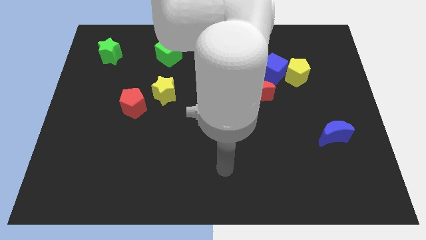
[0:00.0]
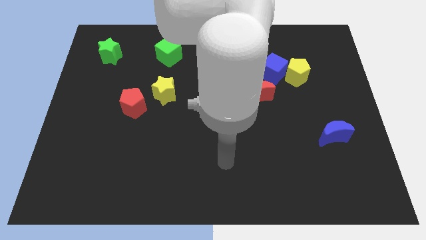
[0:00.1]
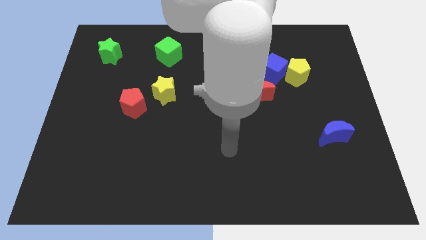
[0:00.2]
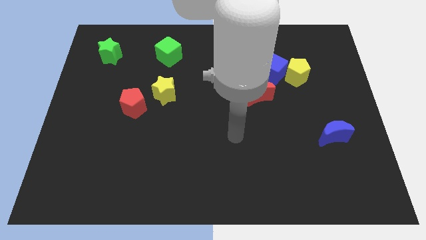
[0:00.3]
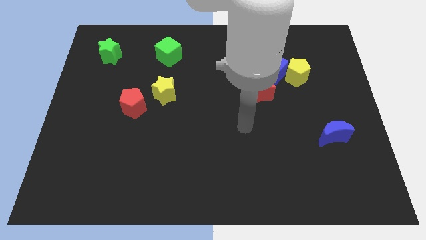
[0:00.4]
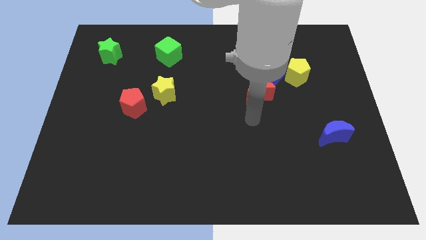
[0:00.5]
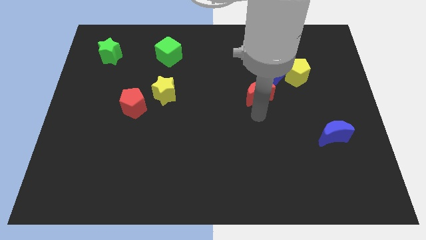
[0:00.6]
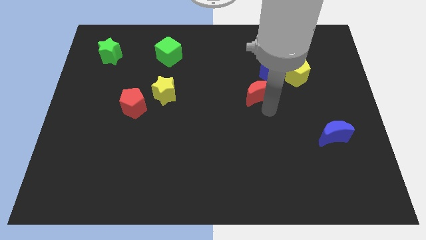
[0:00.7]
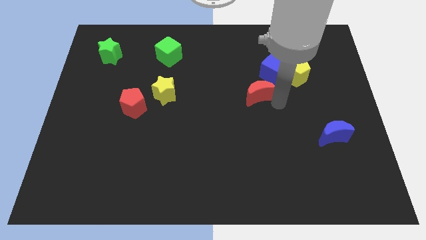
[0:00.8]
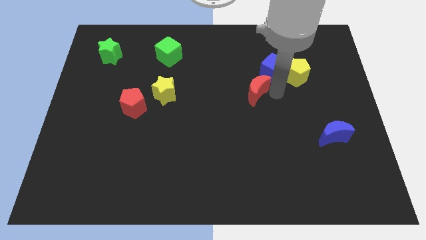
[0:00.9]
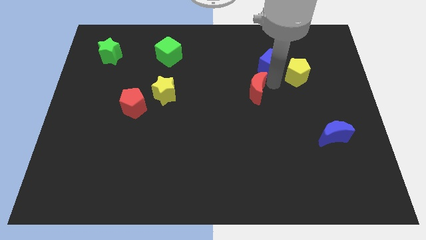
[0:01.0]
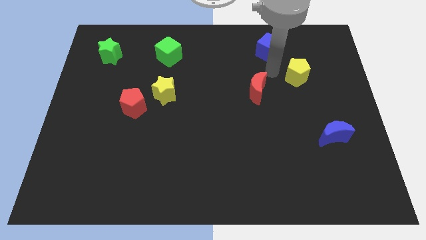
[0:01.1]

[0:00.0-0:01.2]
separate the yellow pentagon from the blue cube

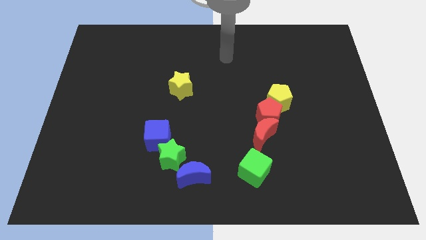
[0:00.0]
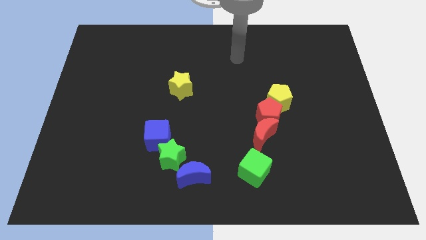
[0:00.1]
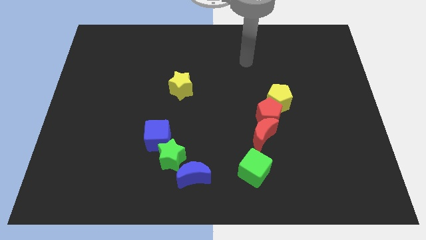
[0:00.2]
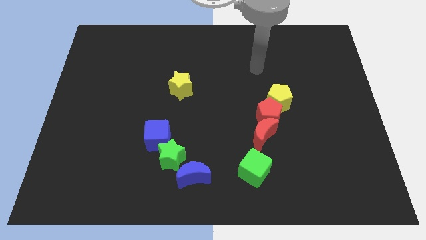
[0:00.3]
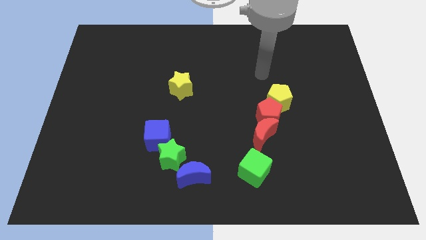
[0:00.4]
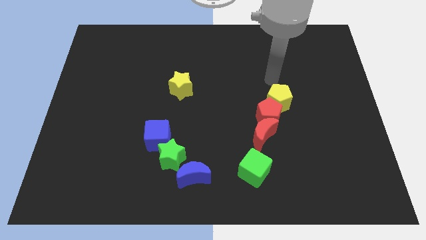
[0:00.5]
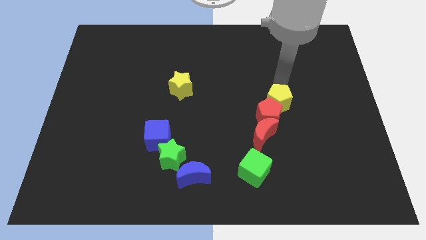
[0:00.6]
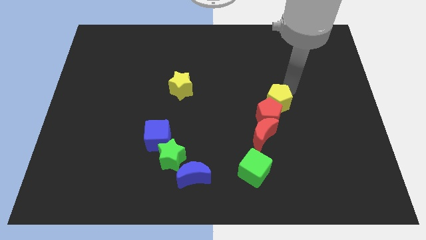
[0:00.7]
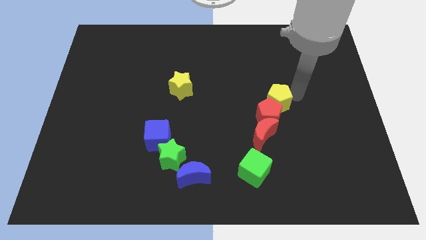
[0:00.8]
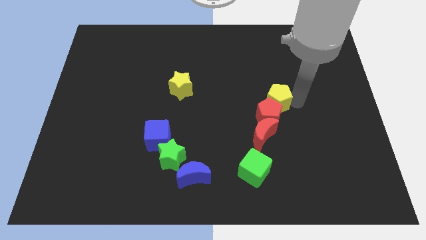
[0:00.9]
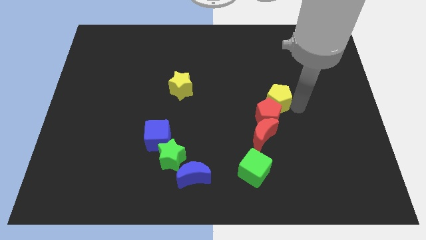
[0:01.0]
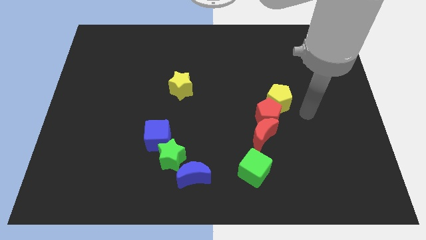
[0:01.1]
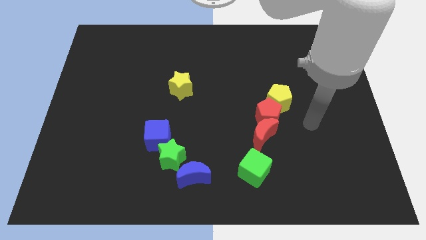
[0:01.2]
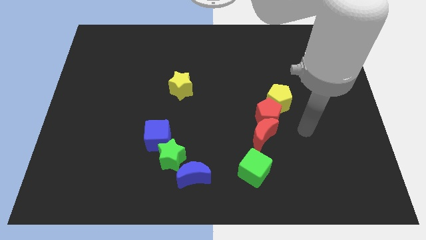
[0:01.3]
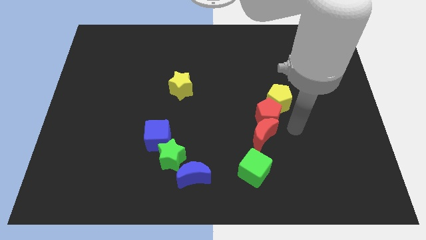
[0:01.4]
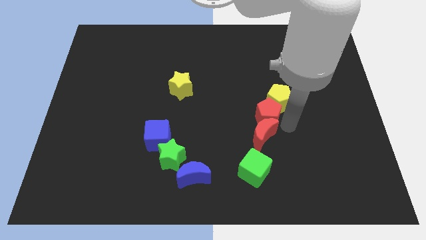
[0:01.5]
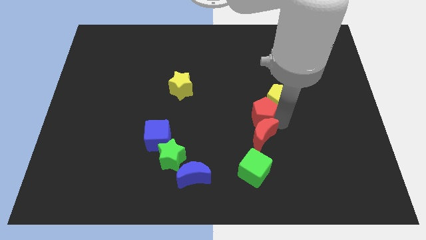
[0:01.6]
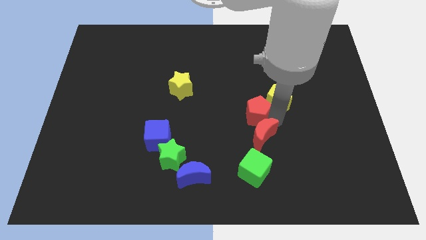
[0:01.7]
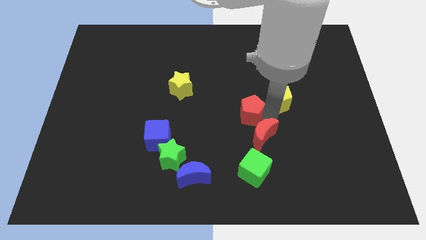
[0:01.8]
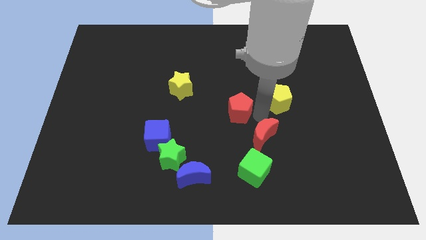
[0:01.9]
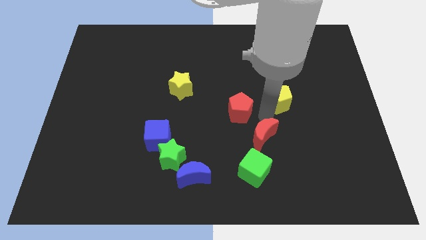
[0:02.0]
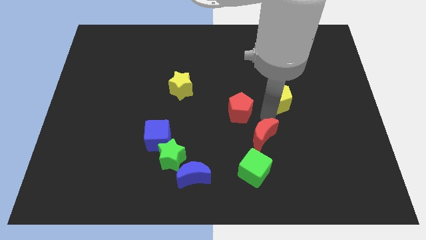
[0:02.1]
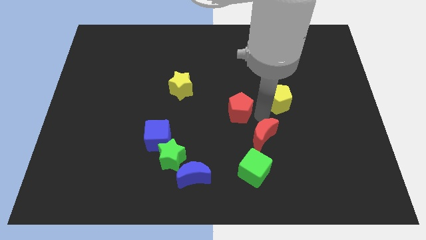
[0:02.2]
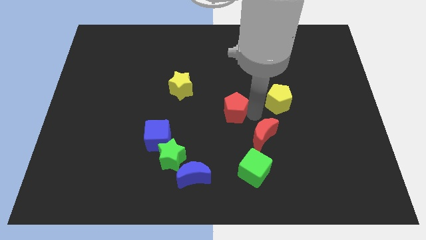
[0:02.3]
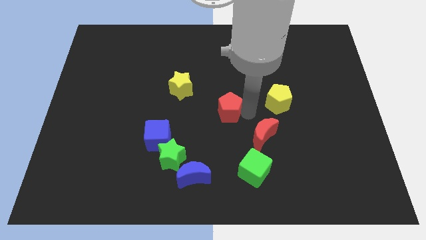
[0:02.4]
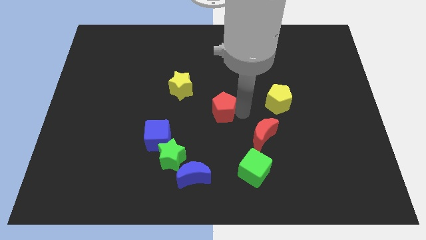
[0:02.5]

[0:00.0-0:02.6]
pull the red pentagon apart from the red moon and yellow pentagon

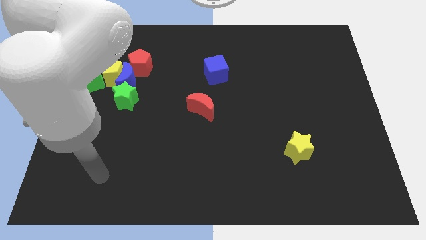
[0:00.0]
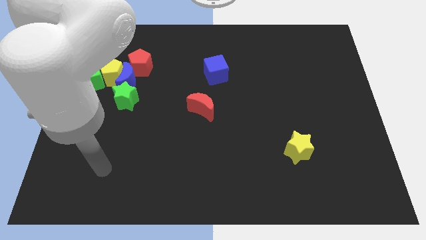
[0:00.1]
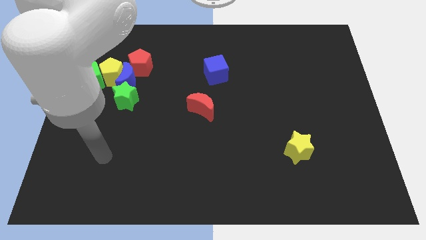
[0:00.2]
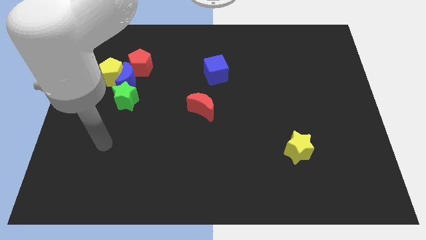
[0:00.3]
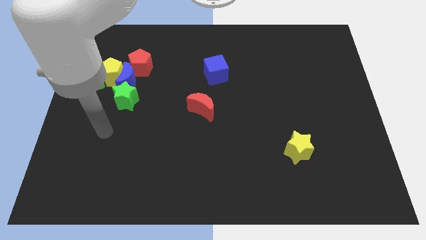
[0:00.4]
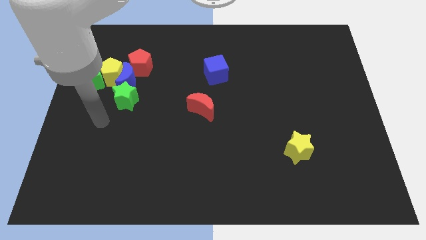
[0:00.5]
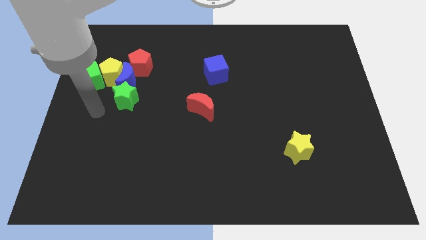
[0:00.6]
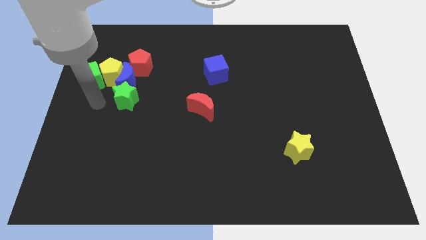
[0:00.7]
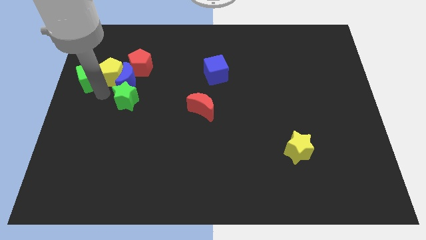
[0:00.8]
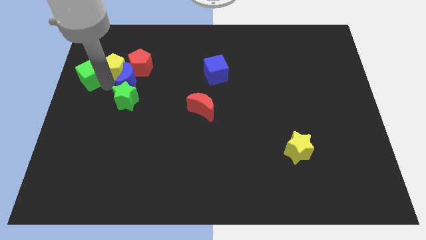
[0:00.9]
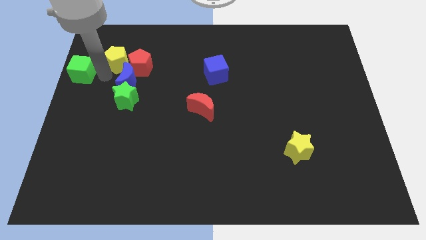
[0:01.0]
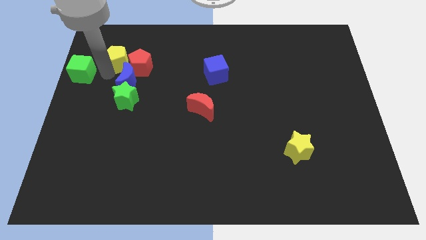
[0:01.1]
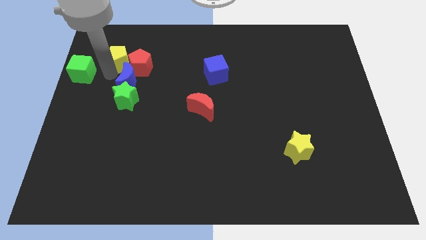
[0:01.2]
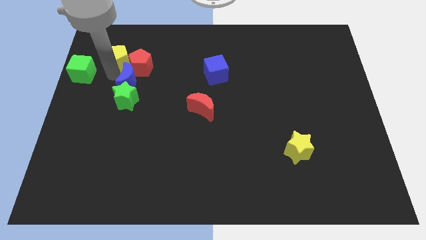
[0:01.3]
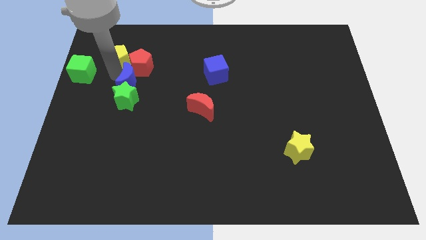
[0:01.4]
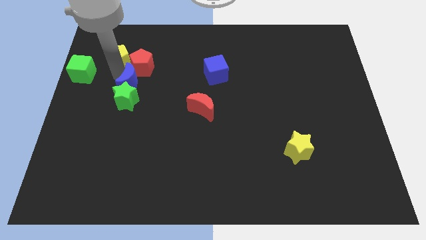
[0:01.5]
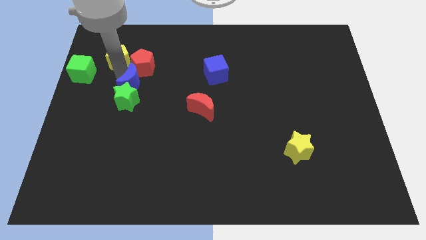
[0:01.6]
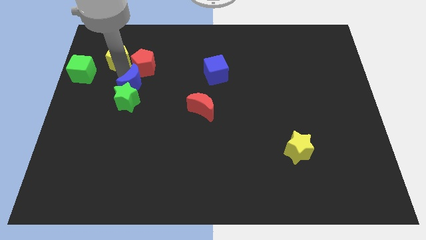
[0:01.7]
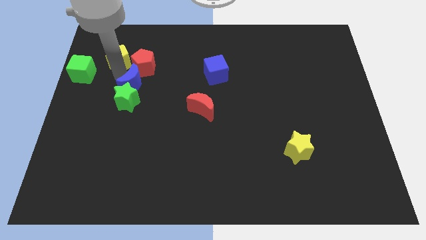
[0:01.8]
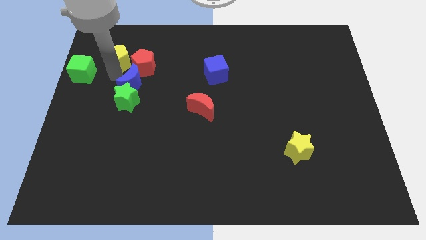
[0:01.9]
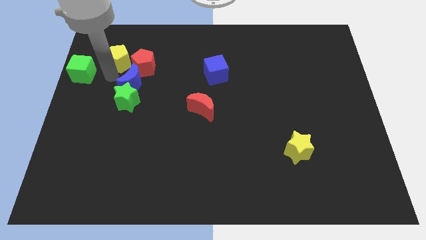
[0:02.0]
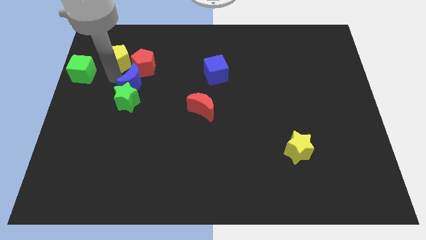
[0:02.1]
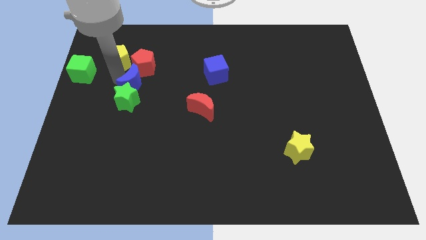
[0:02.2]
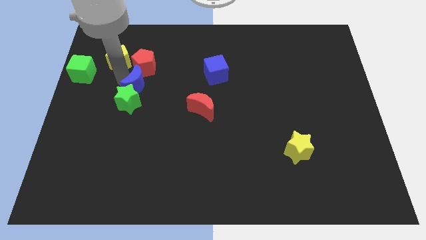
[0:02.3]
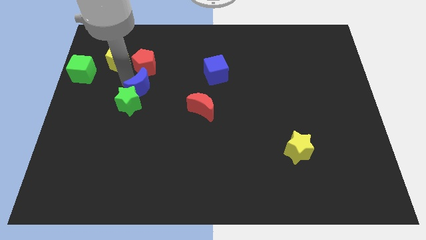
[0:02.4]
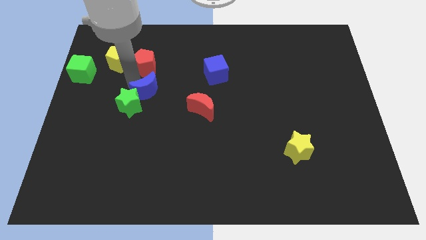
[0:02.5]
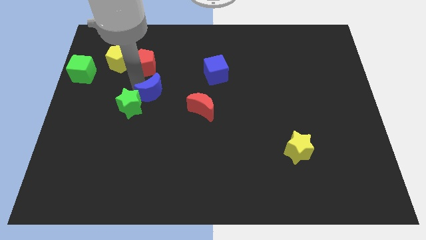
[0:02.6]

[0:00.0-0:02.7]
move the blue moon away from the group of blocks

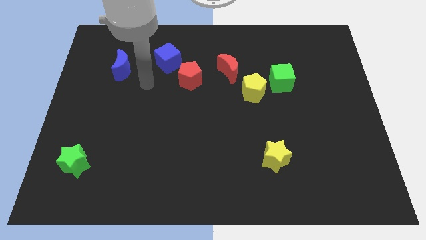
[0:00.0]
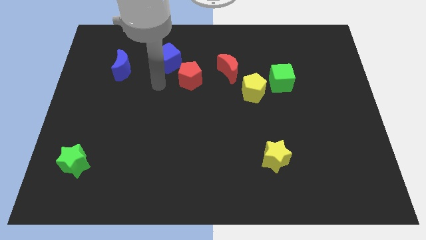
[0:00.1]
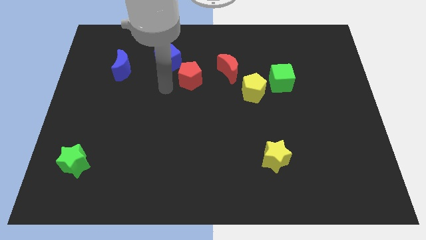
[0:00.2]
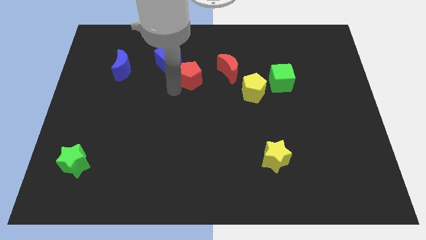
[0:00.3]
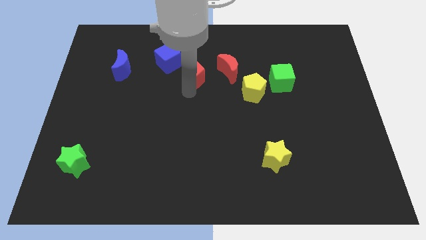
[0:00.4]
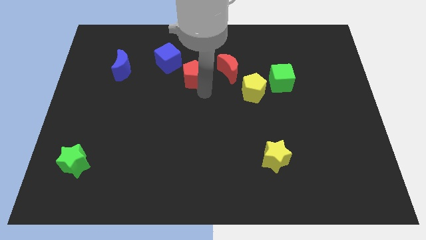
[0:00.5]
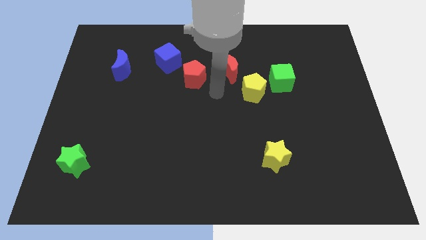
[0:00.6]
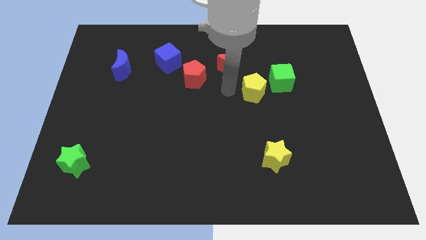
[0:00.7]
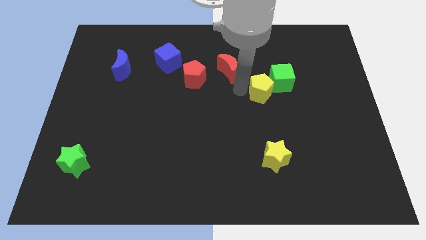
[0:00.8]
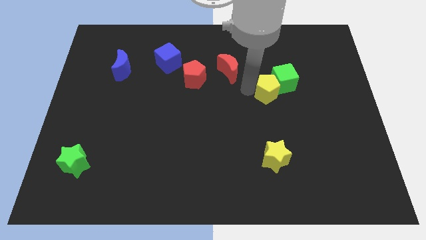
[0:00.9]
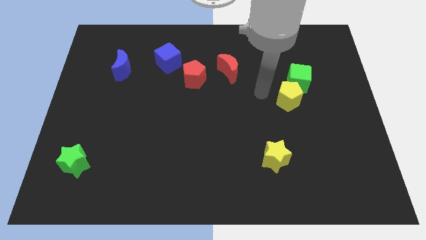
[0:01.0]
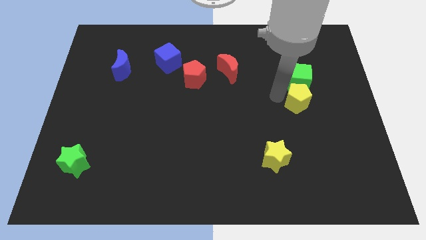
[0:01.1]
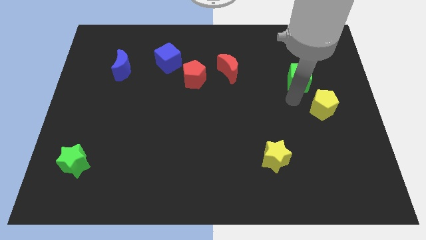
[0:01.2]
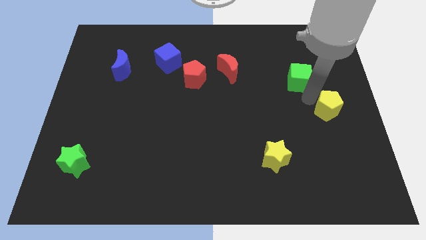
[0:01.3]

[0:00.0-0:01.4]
move the green cube away from the yellow pentagon

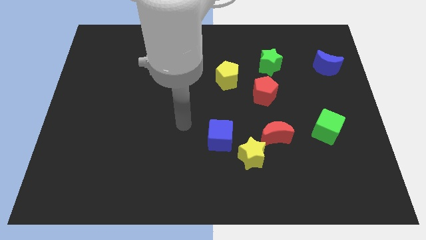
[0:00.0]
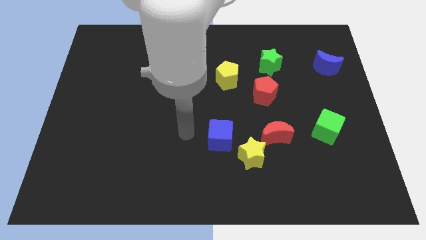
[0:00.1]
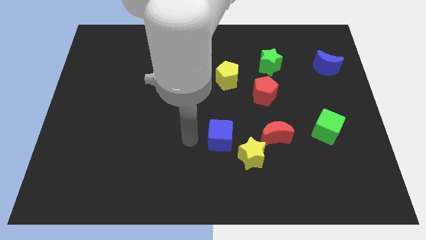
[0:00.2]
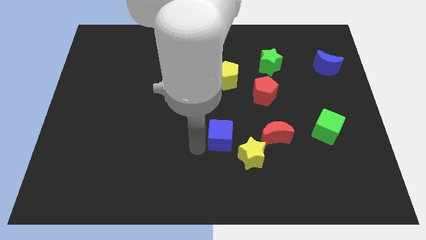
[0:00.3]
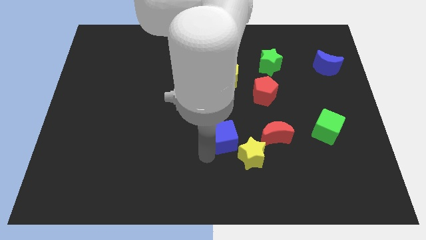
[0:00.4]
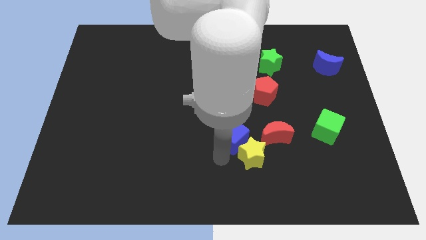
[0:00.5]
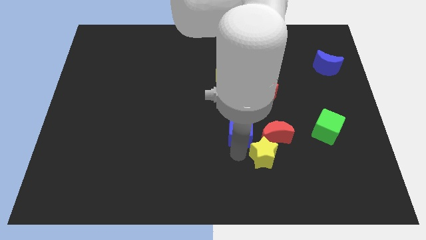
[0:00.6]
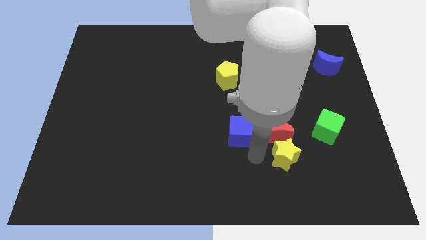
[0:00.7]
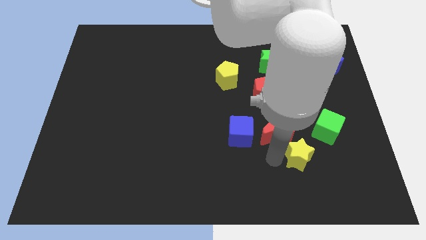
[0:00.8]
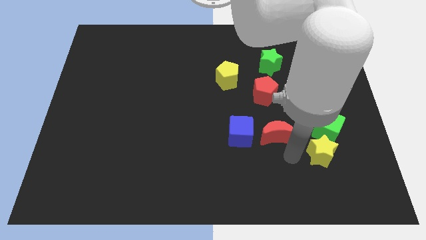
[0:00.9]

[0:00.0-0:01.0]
separate the red moon from the yellow star

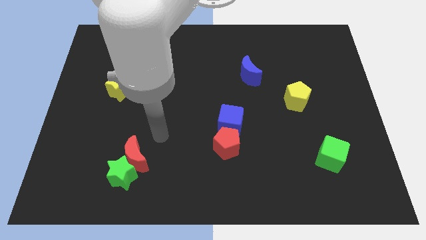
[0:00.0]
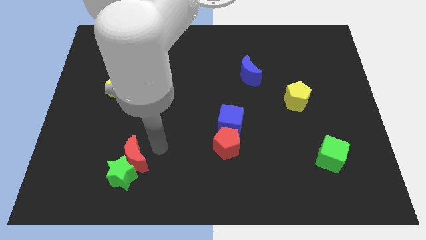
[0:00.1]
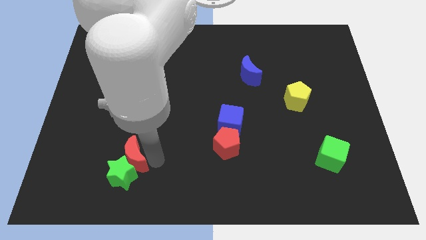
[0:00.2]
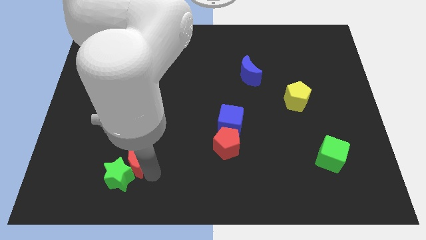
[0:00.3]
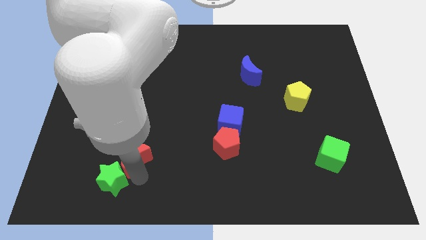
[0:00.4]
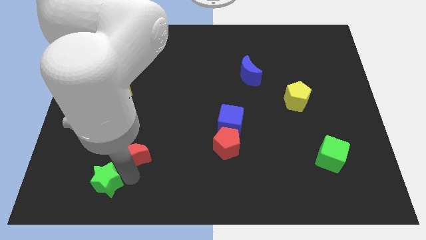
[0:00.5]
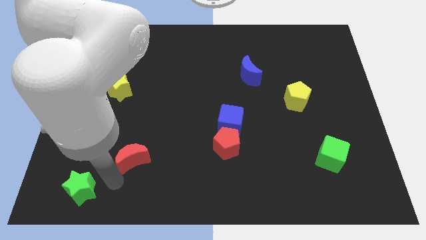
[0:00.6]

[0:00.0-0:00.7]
separate the red moon from the green star
